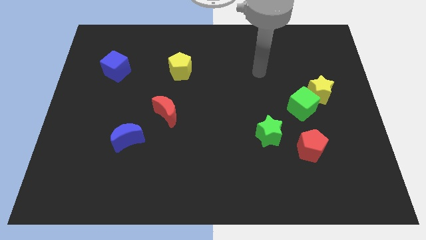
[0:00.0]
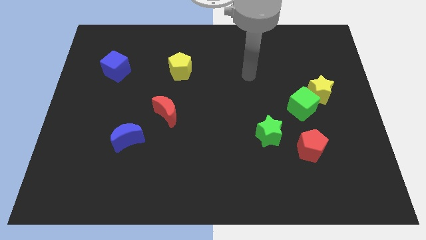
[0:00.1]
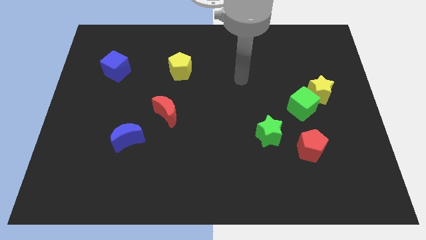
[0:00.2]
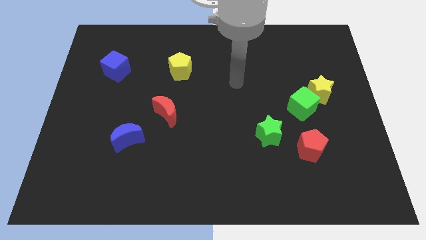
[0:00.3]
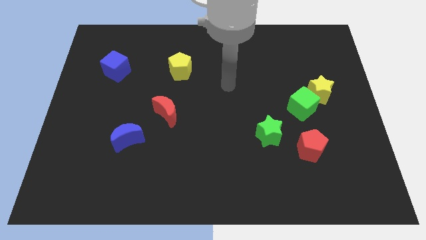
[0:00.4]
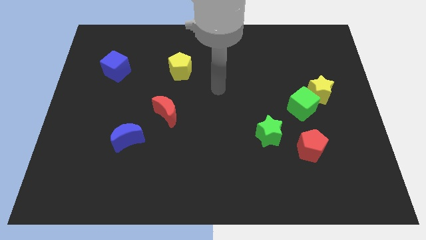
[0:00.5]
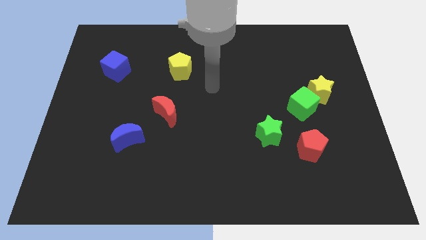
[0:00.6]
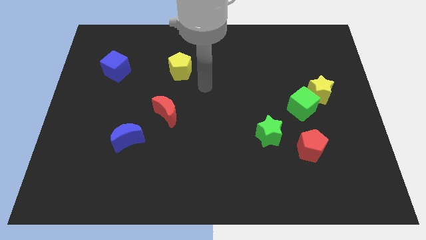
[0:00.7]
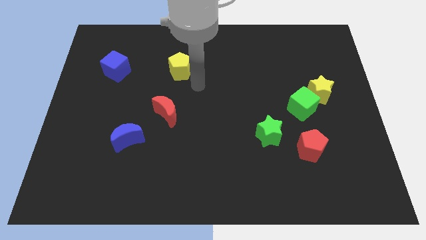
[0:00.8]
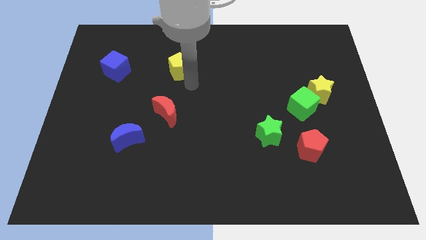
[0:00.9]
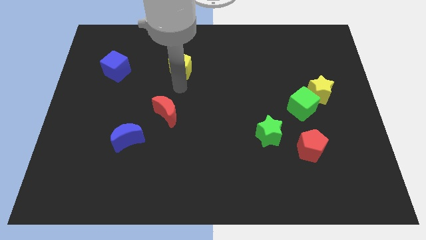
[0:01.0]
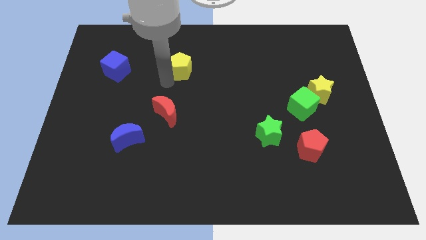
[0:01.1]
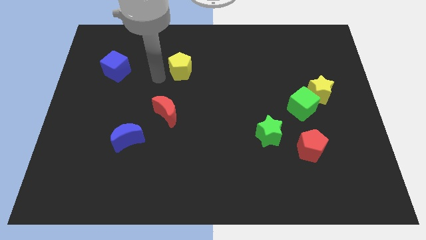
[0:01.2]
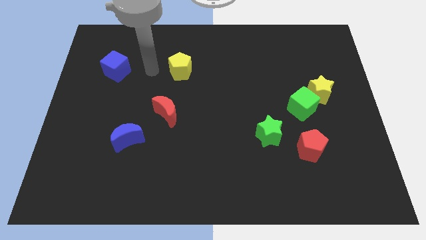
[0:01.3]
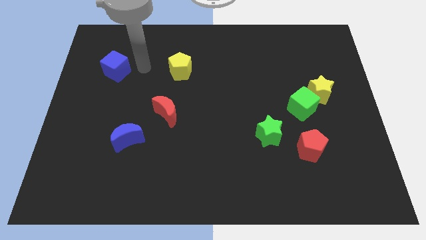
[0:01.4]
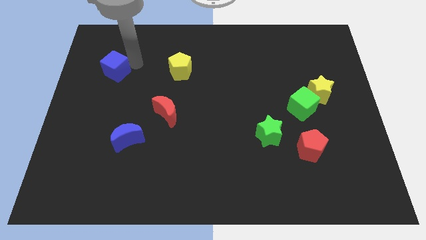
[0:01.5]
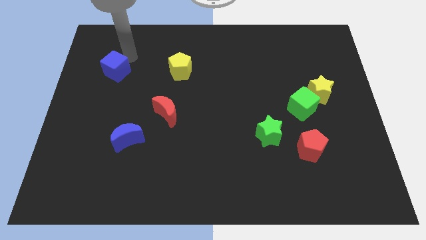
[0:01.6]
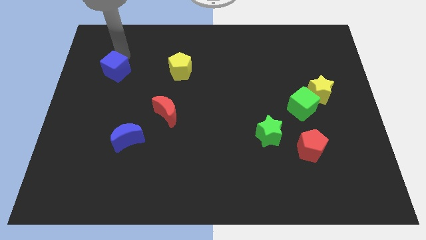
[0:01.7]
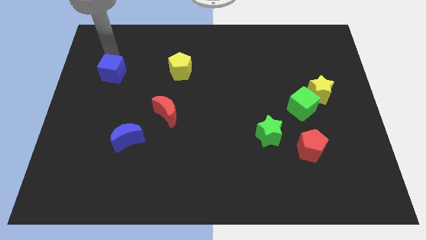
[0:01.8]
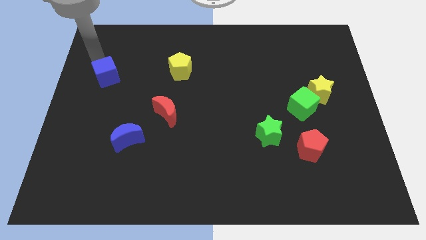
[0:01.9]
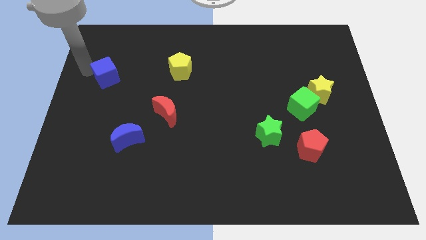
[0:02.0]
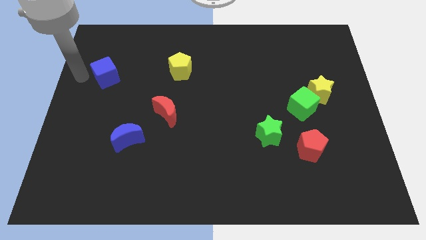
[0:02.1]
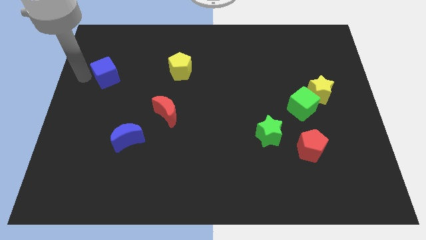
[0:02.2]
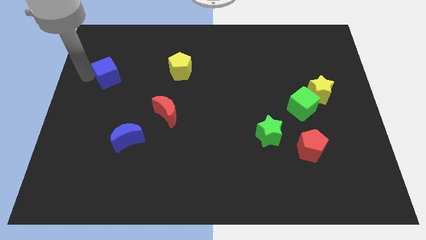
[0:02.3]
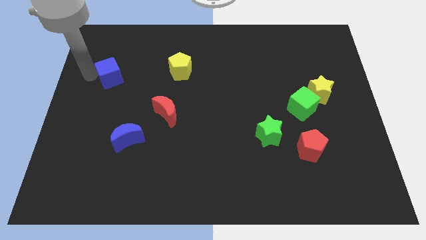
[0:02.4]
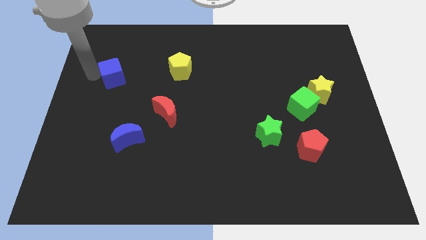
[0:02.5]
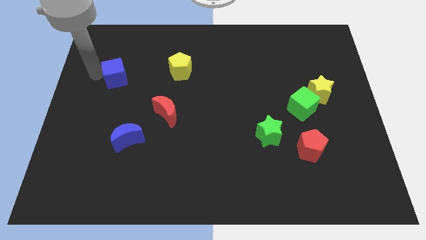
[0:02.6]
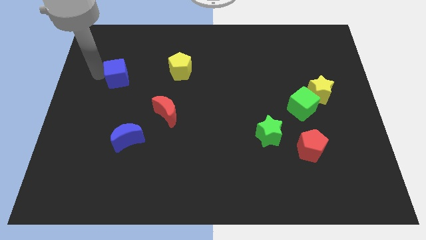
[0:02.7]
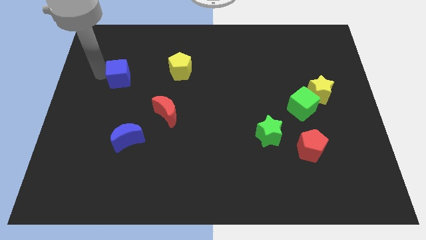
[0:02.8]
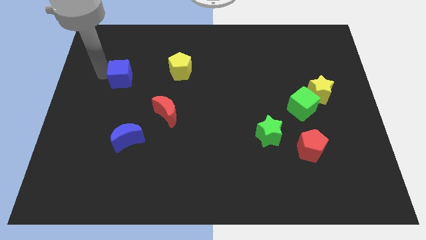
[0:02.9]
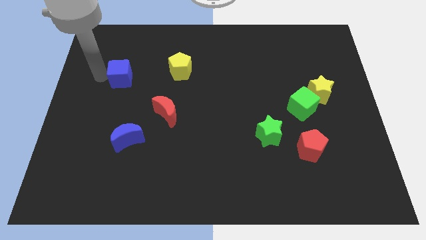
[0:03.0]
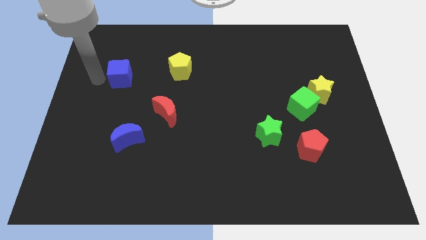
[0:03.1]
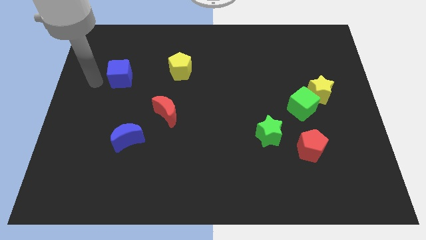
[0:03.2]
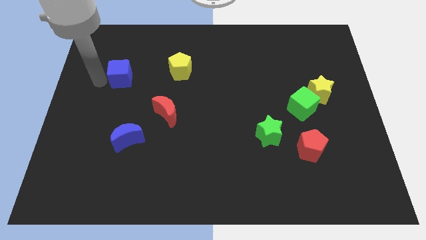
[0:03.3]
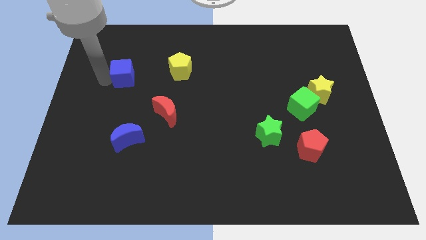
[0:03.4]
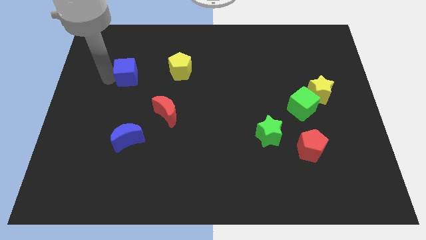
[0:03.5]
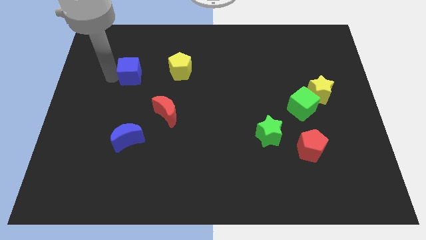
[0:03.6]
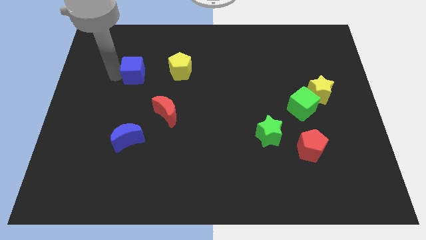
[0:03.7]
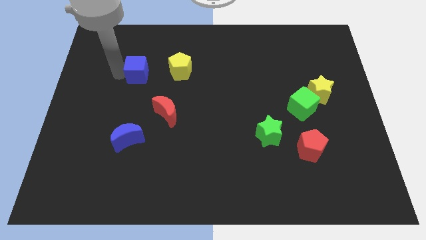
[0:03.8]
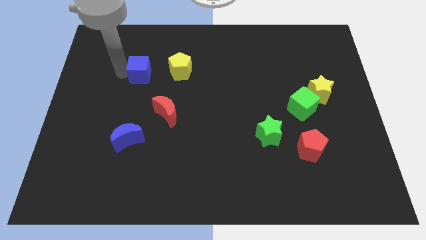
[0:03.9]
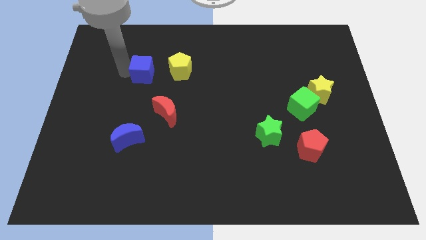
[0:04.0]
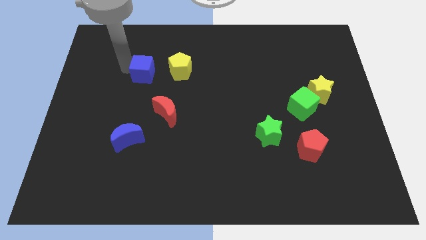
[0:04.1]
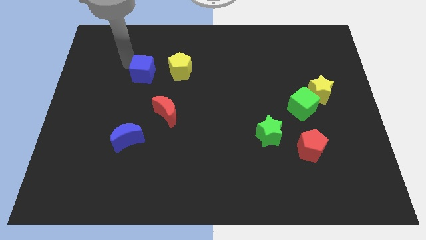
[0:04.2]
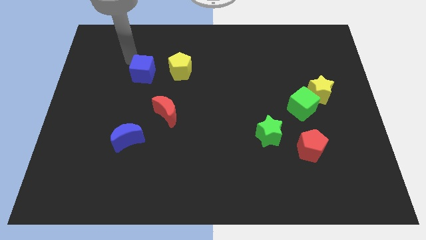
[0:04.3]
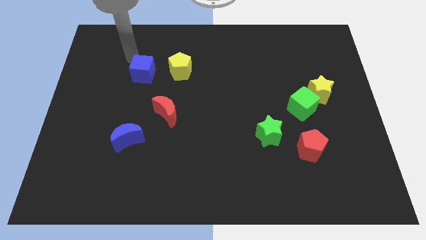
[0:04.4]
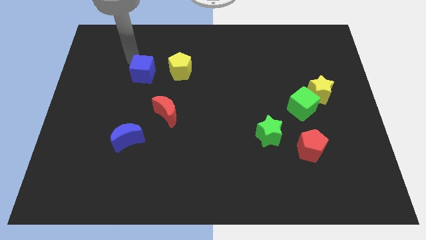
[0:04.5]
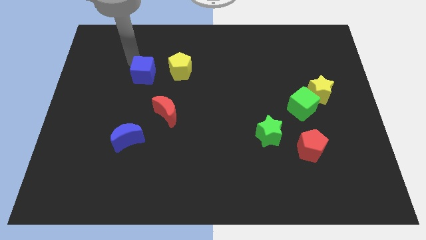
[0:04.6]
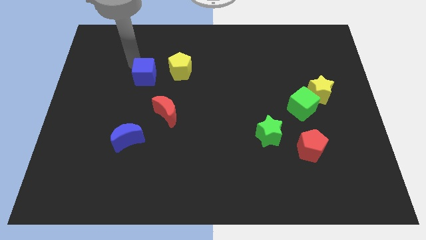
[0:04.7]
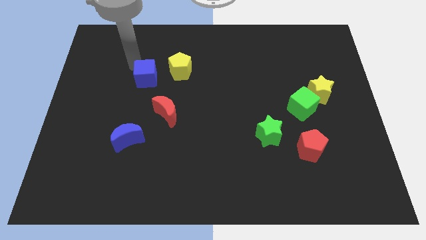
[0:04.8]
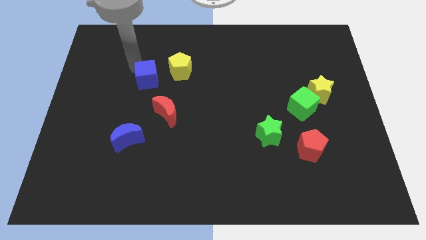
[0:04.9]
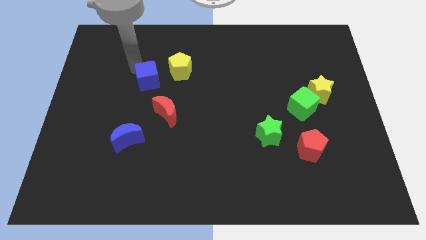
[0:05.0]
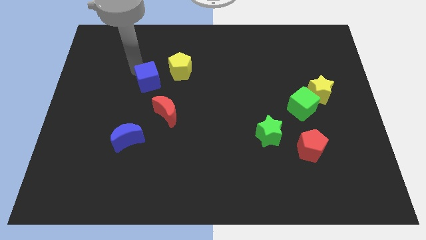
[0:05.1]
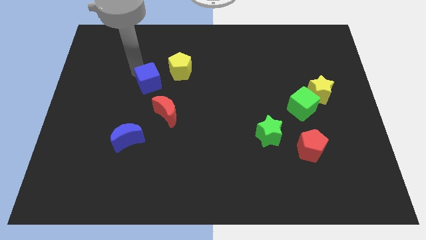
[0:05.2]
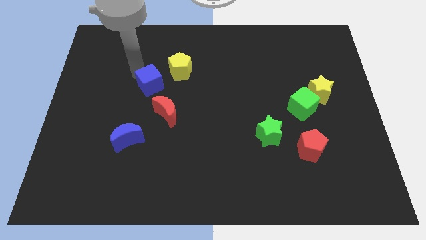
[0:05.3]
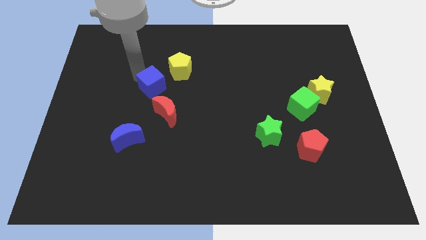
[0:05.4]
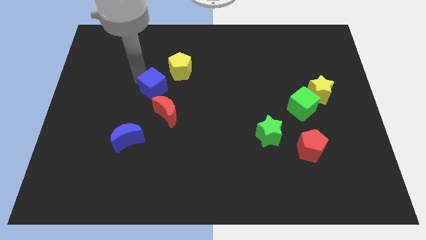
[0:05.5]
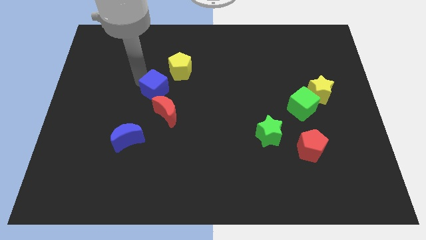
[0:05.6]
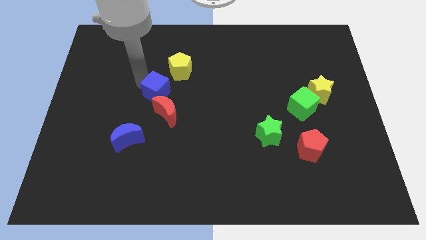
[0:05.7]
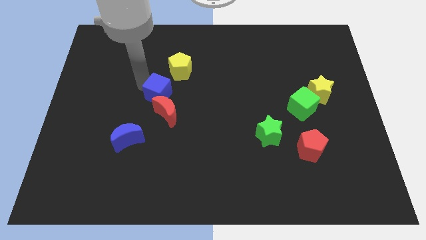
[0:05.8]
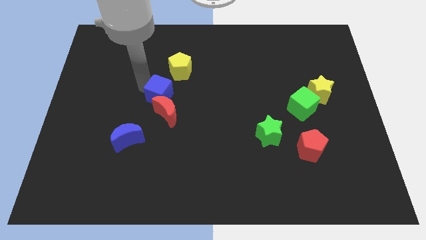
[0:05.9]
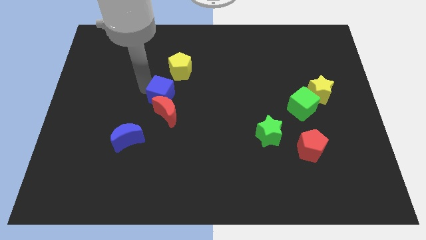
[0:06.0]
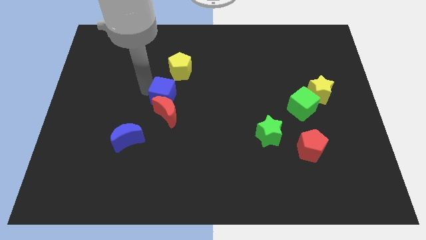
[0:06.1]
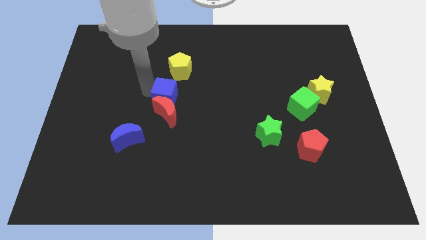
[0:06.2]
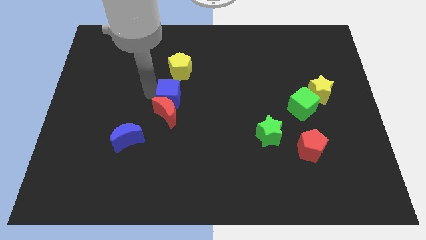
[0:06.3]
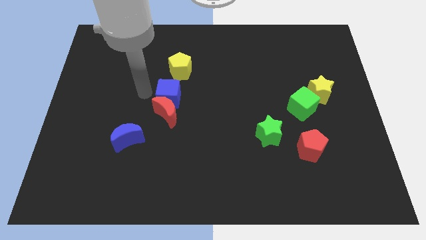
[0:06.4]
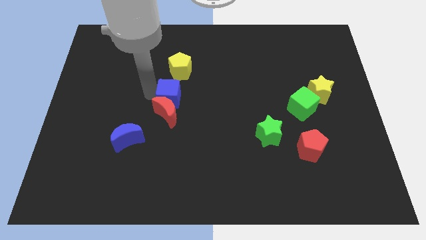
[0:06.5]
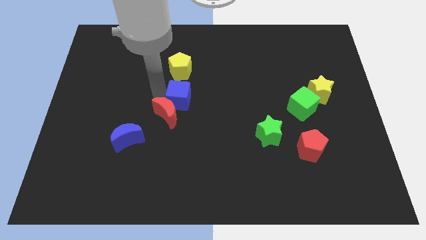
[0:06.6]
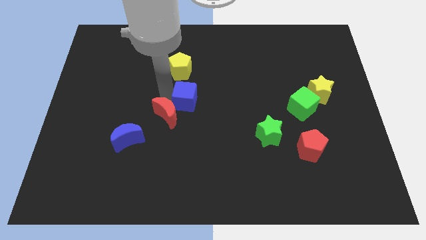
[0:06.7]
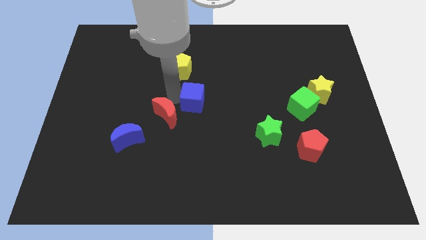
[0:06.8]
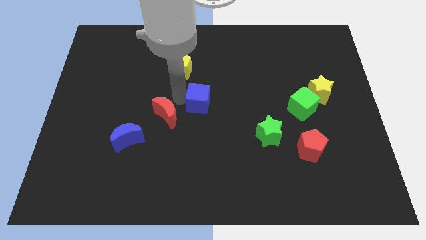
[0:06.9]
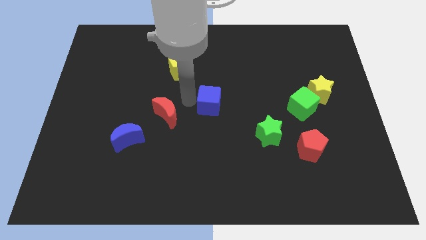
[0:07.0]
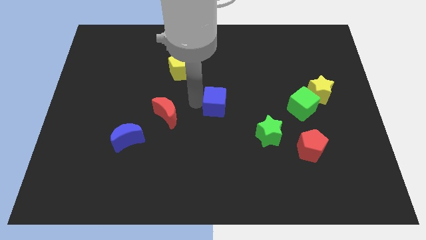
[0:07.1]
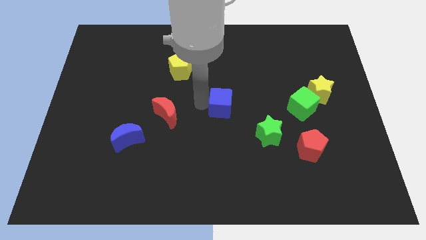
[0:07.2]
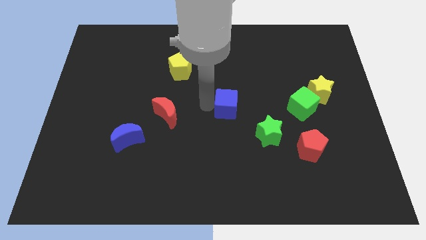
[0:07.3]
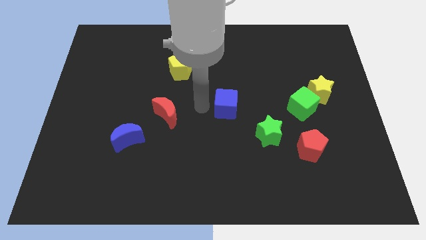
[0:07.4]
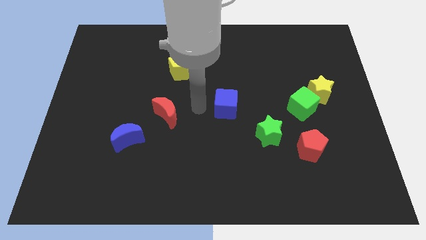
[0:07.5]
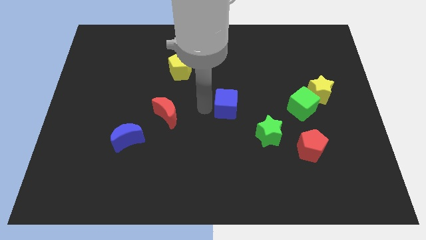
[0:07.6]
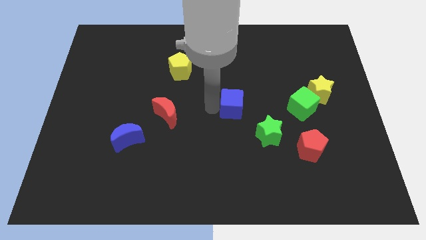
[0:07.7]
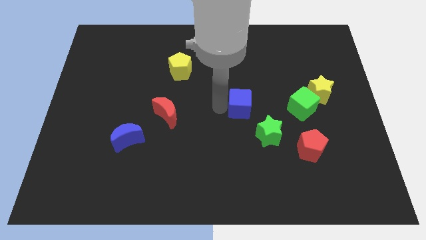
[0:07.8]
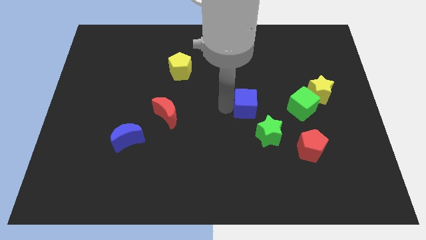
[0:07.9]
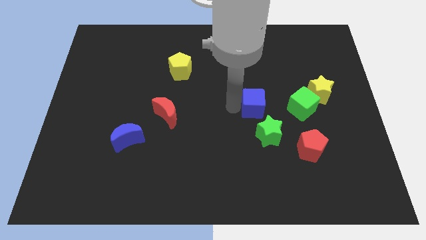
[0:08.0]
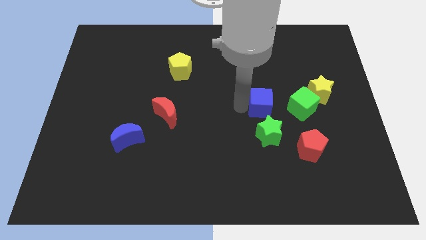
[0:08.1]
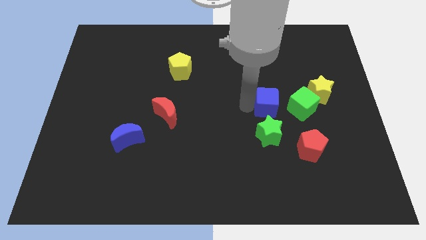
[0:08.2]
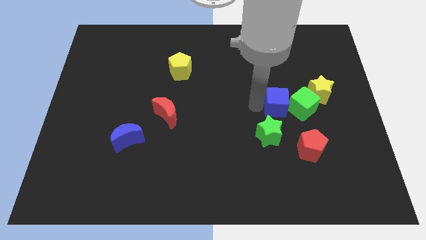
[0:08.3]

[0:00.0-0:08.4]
slide the blue cube next to the green cube
